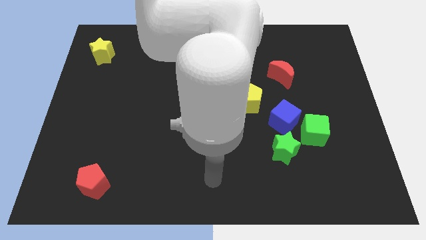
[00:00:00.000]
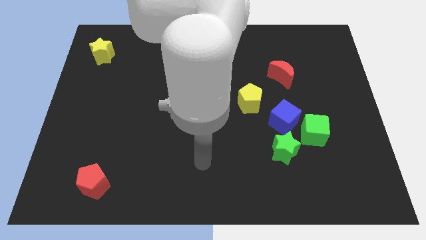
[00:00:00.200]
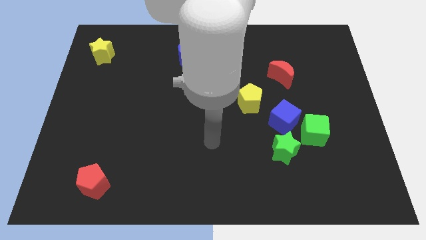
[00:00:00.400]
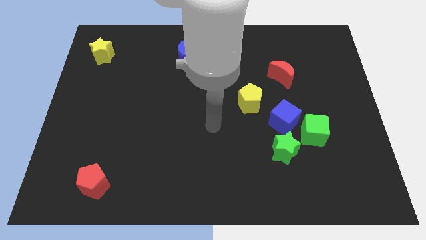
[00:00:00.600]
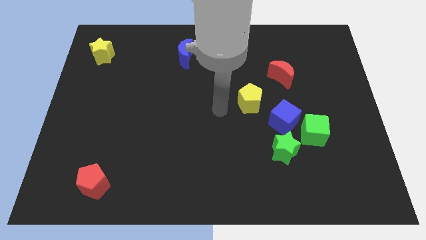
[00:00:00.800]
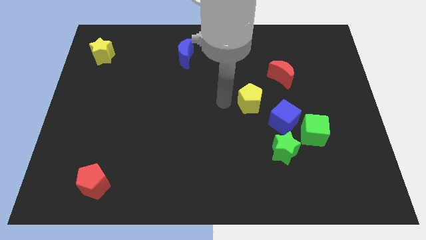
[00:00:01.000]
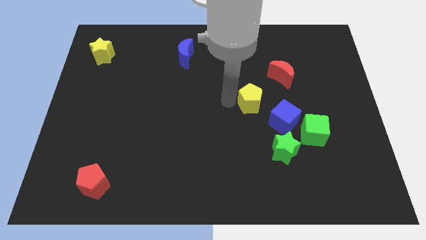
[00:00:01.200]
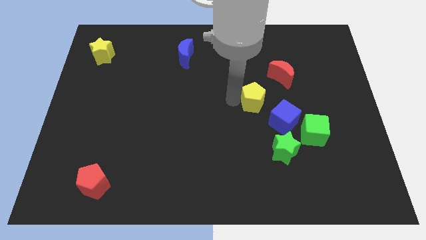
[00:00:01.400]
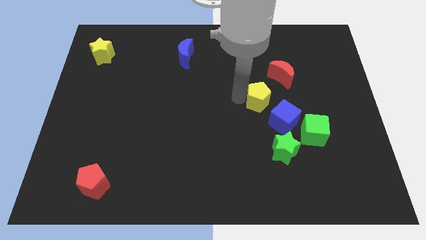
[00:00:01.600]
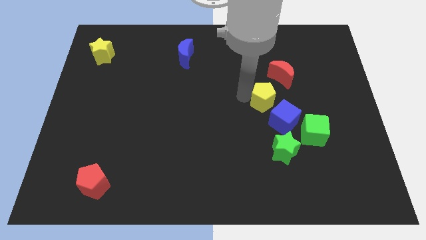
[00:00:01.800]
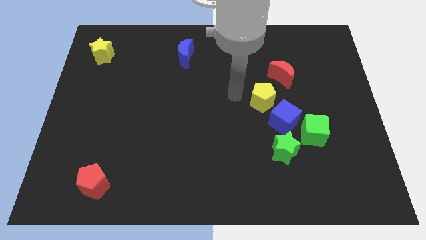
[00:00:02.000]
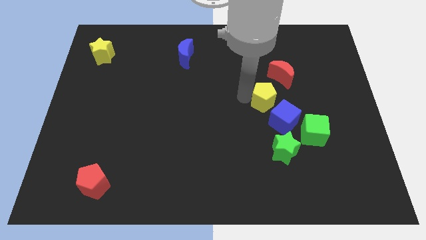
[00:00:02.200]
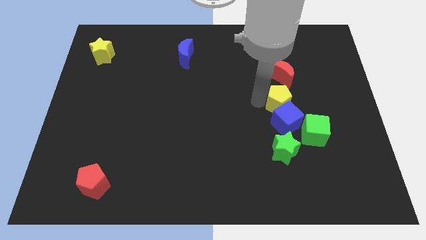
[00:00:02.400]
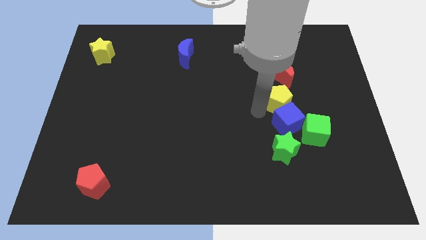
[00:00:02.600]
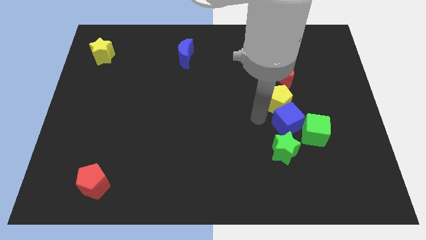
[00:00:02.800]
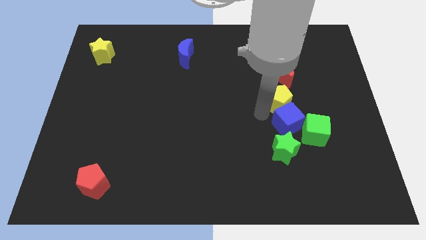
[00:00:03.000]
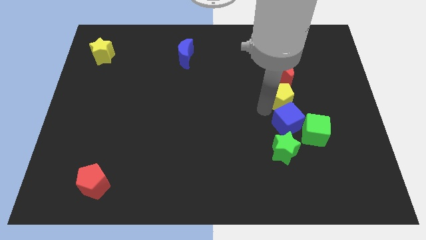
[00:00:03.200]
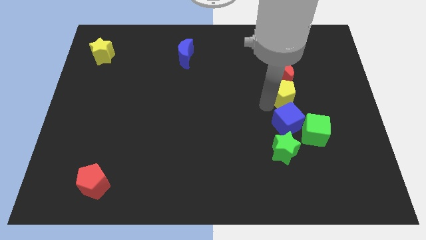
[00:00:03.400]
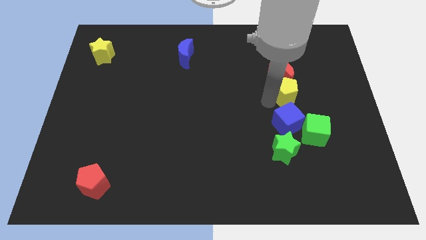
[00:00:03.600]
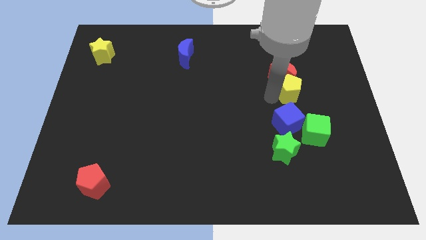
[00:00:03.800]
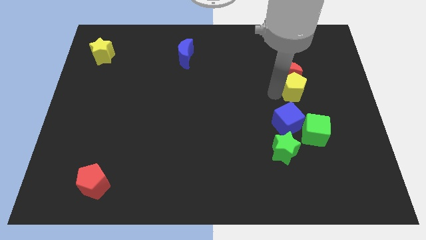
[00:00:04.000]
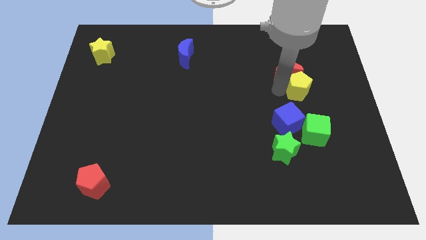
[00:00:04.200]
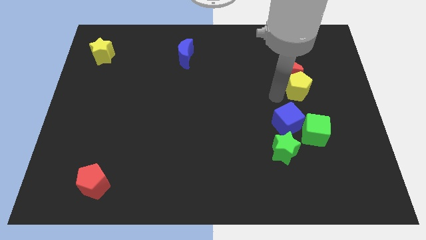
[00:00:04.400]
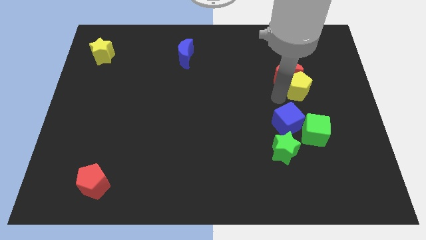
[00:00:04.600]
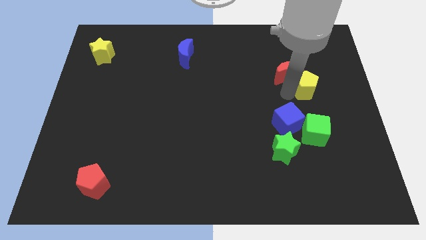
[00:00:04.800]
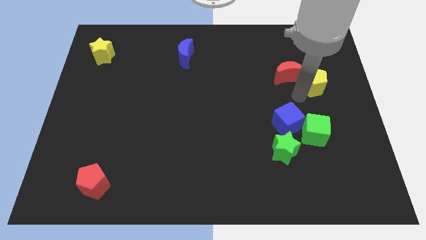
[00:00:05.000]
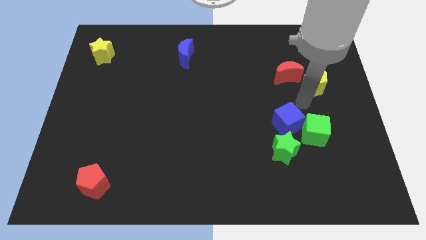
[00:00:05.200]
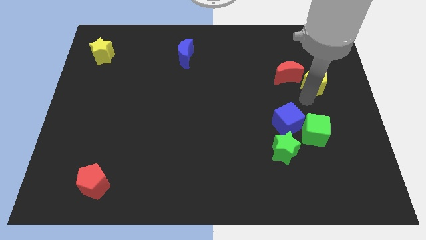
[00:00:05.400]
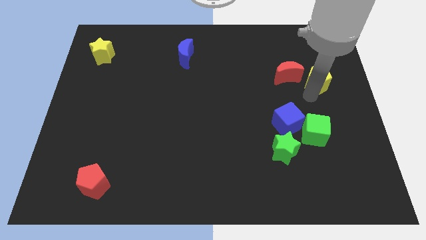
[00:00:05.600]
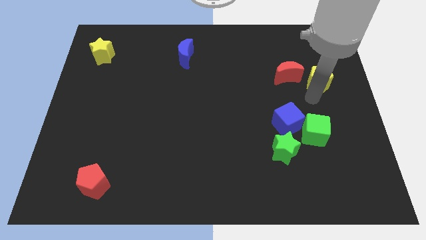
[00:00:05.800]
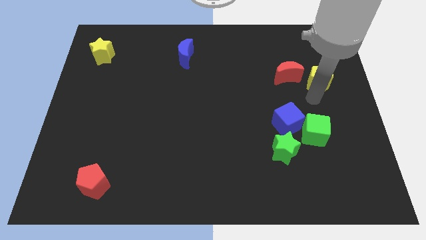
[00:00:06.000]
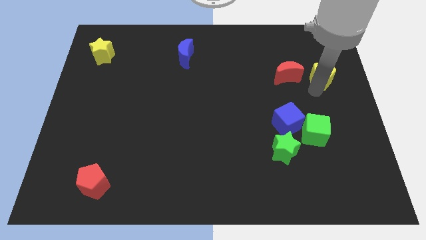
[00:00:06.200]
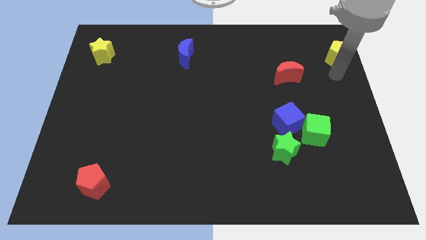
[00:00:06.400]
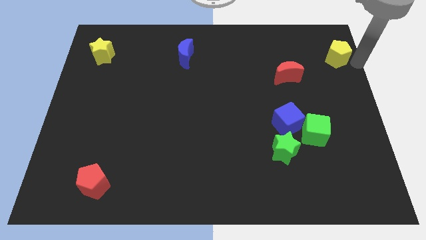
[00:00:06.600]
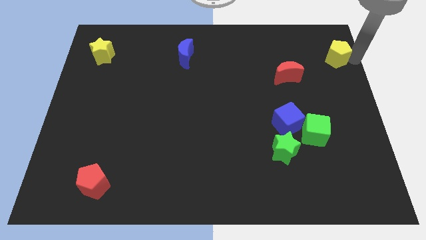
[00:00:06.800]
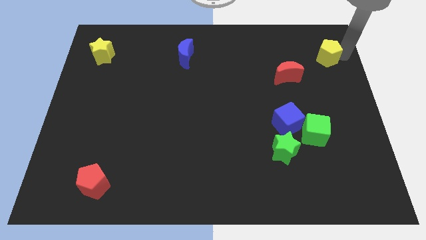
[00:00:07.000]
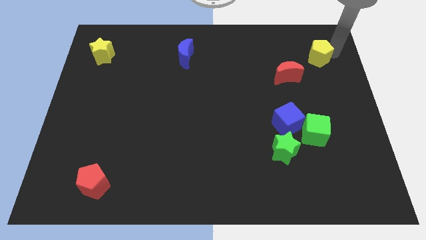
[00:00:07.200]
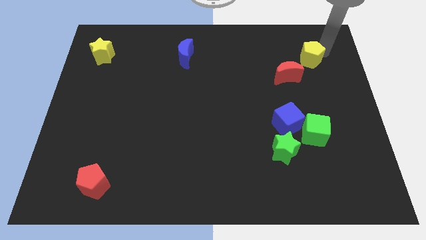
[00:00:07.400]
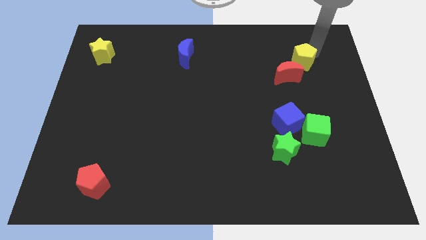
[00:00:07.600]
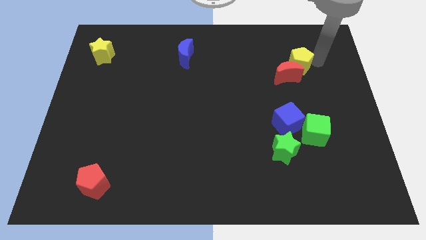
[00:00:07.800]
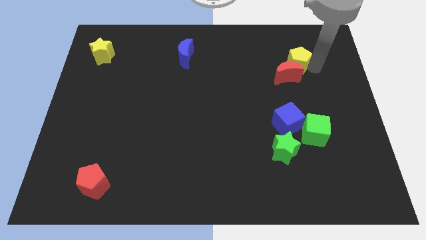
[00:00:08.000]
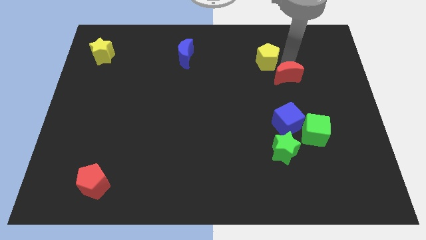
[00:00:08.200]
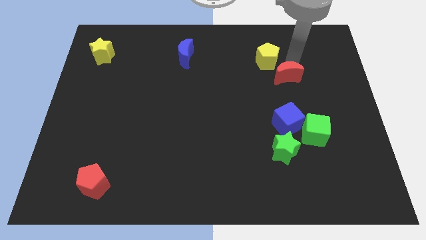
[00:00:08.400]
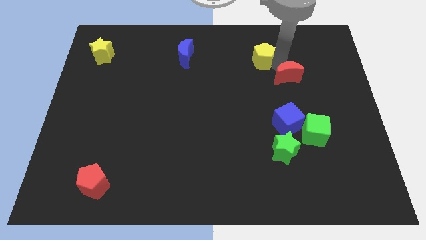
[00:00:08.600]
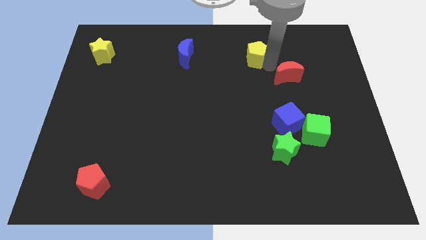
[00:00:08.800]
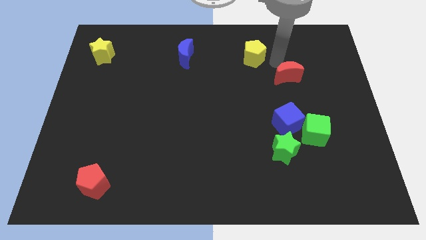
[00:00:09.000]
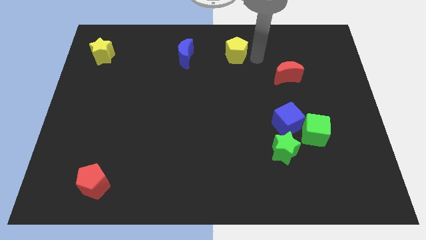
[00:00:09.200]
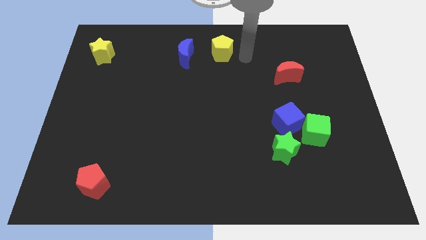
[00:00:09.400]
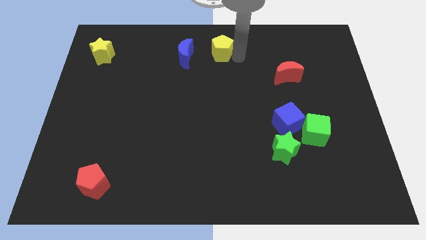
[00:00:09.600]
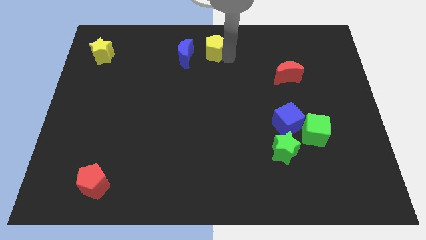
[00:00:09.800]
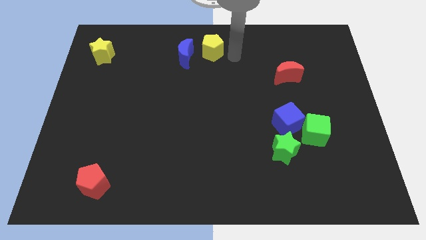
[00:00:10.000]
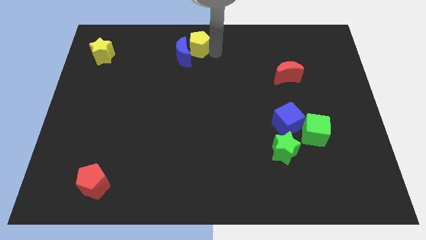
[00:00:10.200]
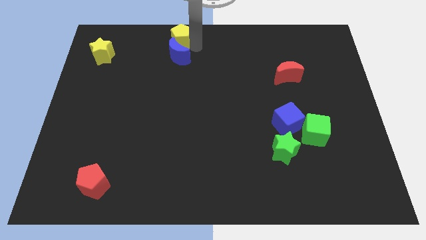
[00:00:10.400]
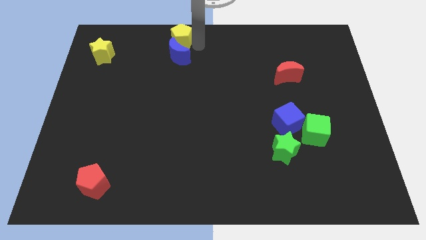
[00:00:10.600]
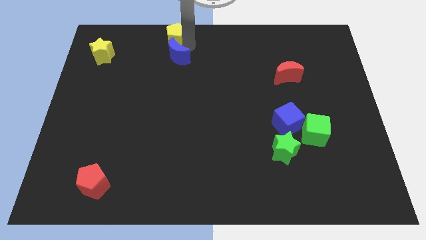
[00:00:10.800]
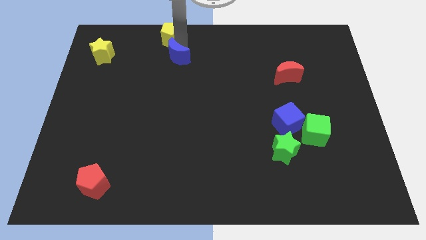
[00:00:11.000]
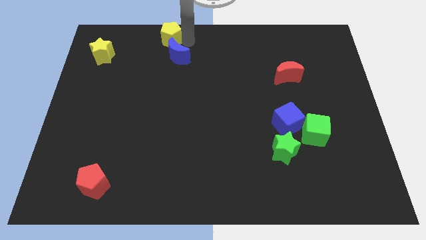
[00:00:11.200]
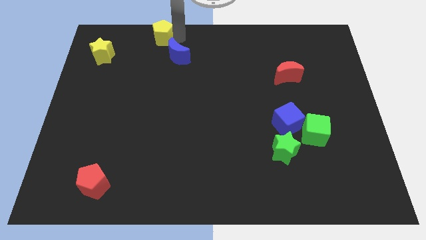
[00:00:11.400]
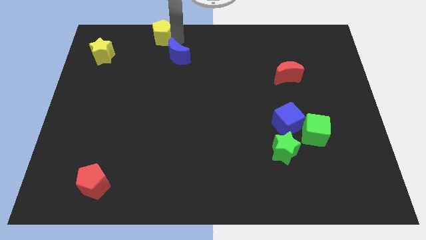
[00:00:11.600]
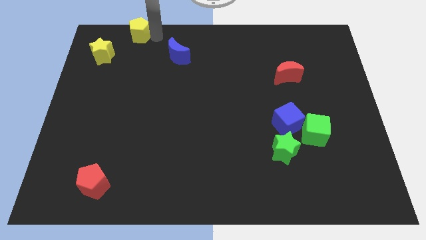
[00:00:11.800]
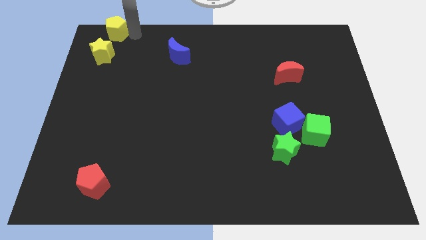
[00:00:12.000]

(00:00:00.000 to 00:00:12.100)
push the yellow pentagon to the top left of the board

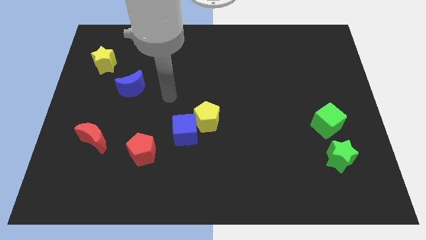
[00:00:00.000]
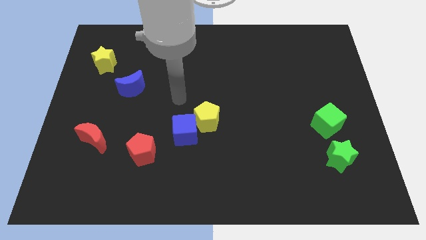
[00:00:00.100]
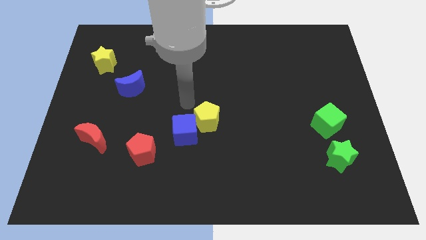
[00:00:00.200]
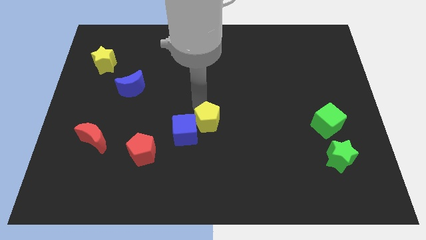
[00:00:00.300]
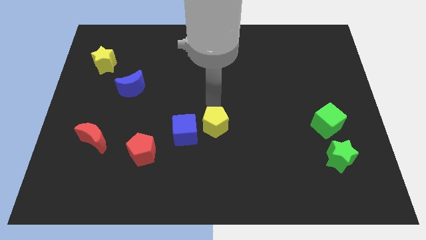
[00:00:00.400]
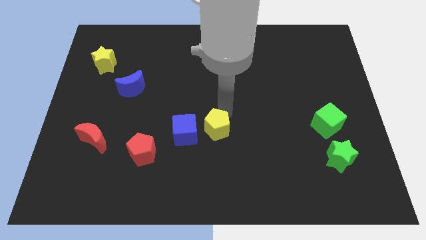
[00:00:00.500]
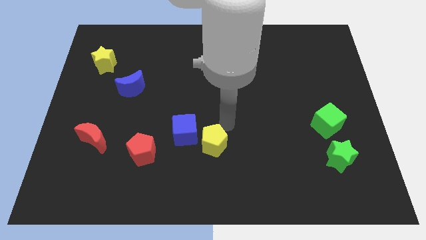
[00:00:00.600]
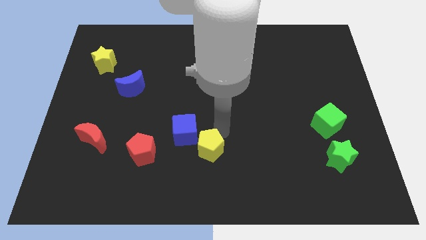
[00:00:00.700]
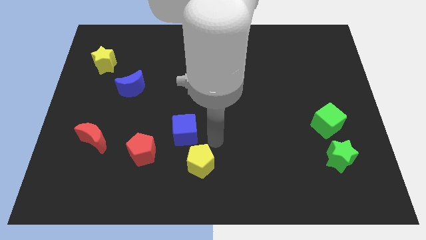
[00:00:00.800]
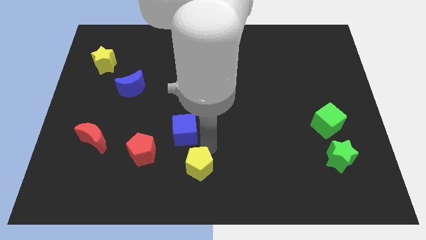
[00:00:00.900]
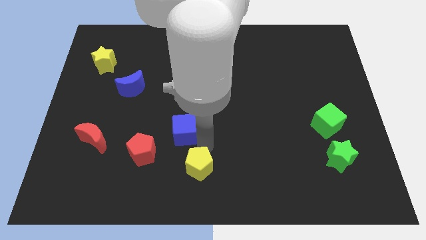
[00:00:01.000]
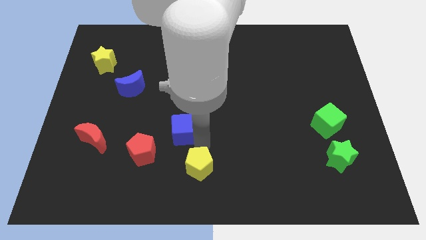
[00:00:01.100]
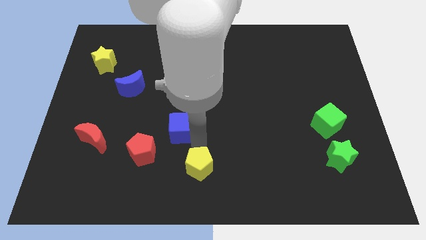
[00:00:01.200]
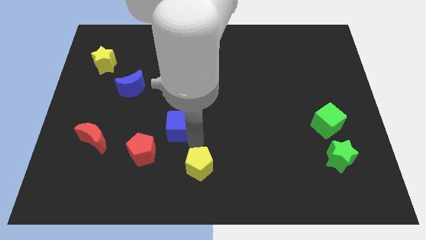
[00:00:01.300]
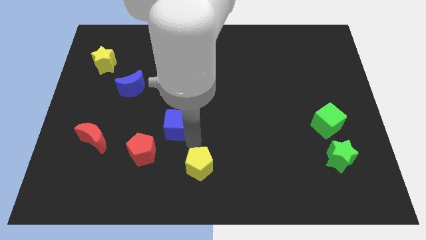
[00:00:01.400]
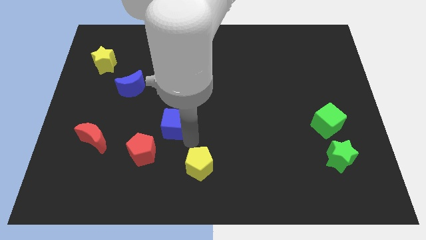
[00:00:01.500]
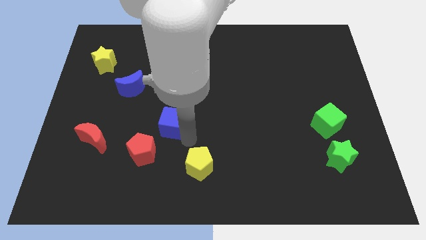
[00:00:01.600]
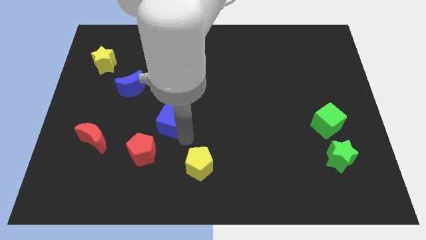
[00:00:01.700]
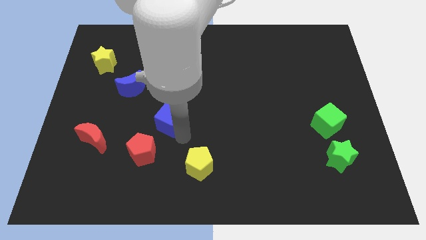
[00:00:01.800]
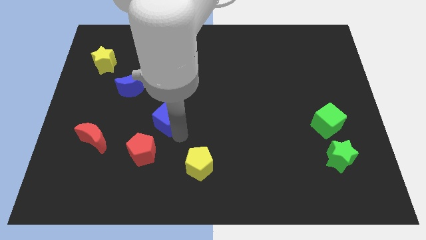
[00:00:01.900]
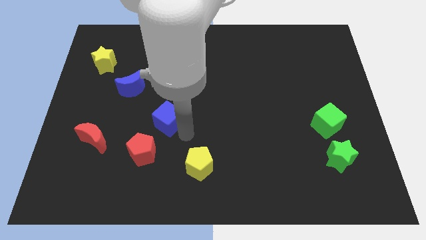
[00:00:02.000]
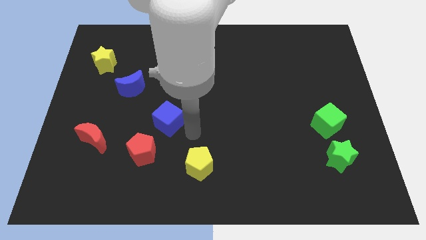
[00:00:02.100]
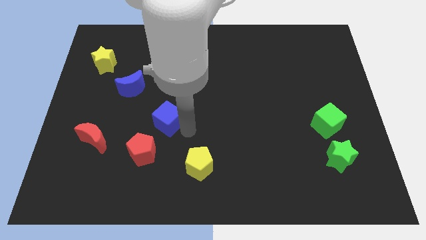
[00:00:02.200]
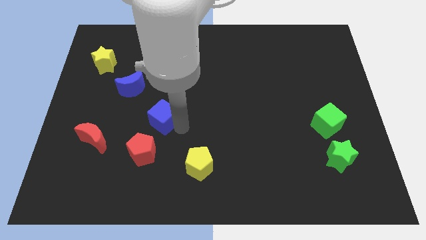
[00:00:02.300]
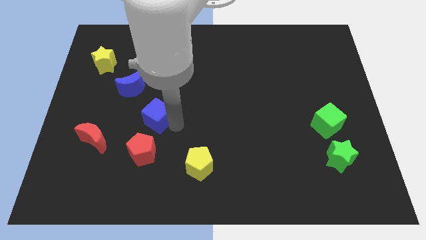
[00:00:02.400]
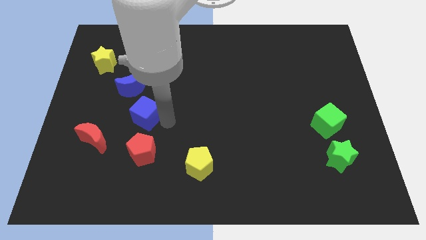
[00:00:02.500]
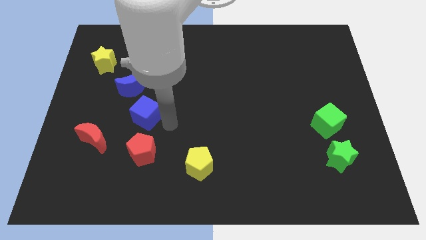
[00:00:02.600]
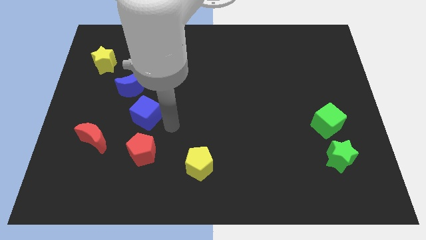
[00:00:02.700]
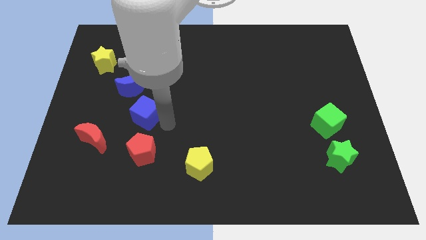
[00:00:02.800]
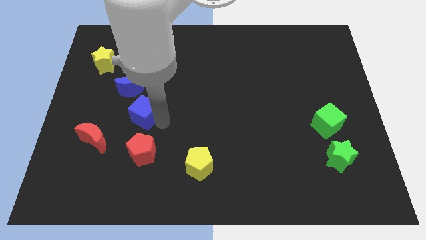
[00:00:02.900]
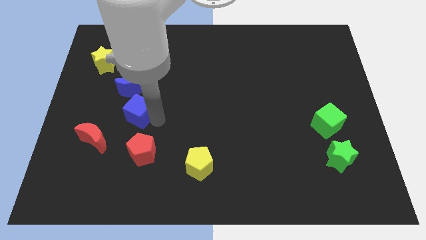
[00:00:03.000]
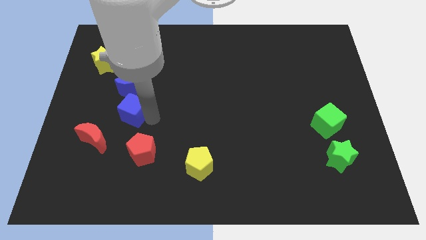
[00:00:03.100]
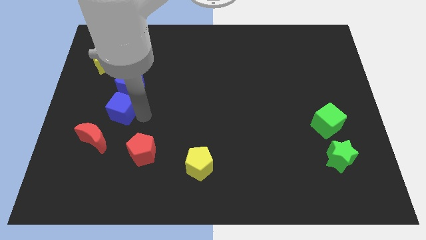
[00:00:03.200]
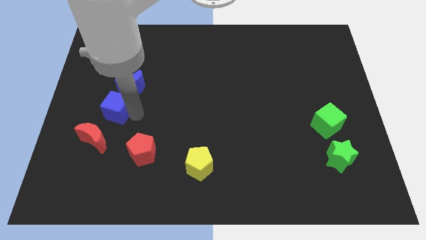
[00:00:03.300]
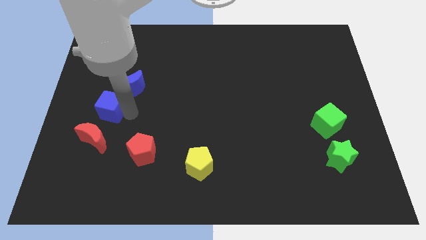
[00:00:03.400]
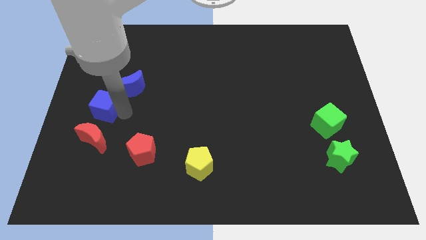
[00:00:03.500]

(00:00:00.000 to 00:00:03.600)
slide the blue cube to the left side
